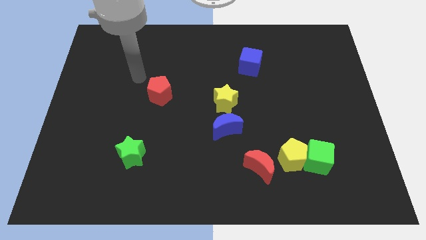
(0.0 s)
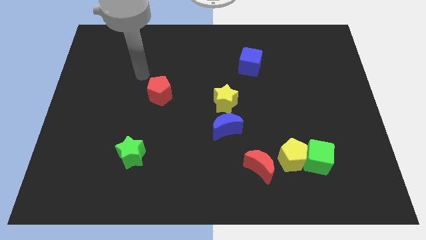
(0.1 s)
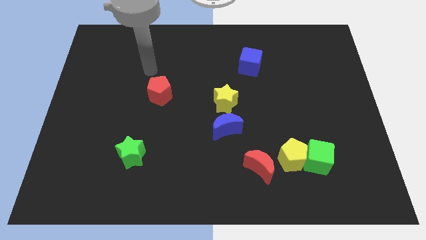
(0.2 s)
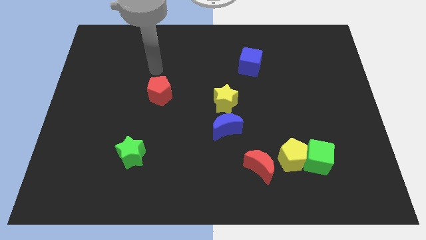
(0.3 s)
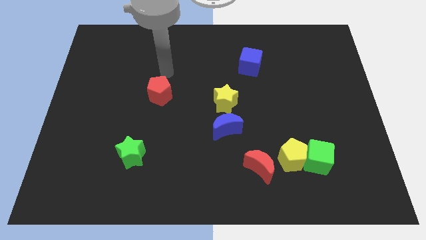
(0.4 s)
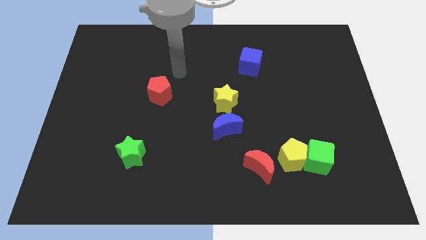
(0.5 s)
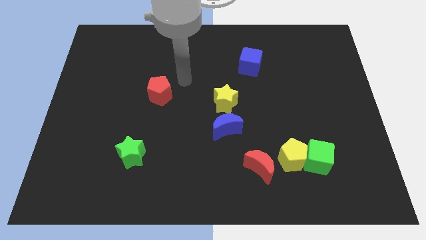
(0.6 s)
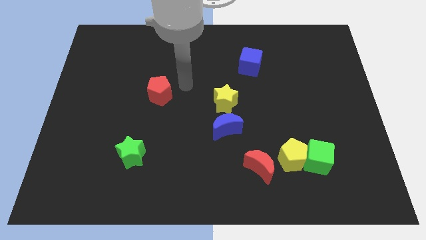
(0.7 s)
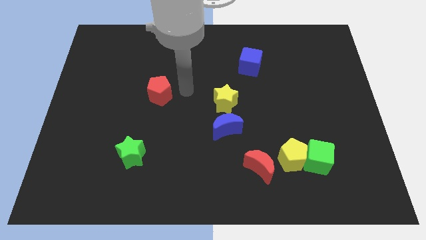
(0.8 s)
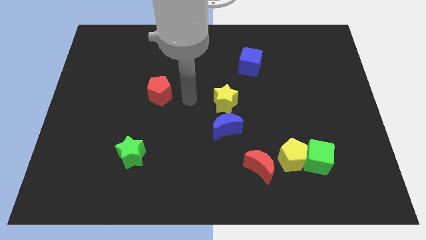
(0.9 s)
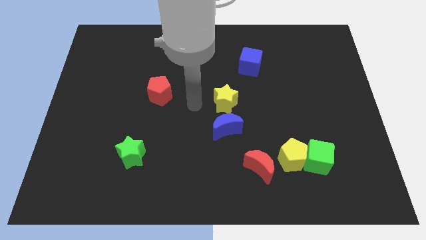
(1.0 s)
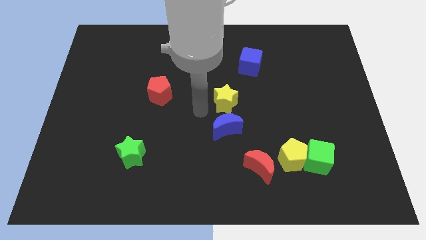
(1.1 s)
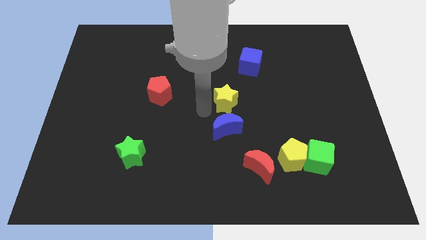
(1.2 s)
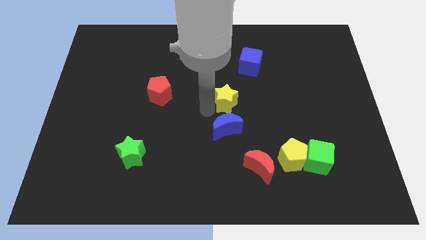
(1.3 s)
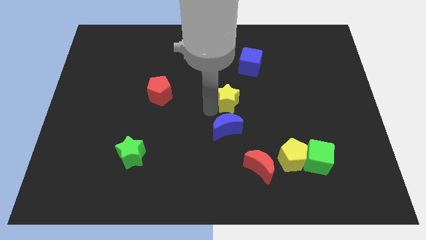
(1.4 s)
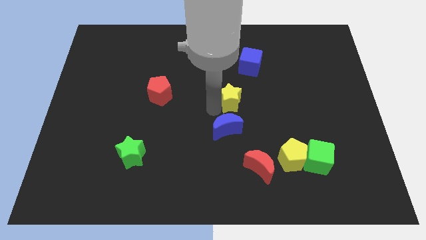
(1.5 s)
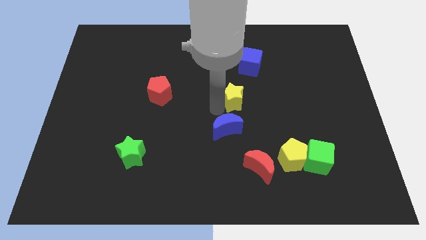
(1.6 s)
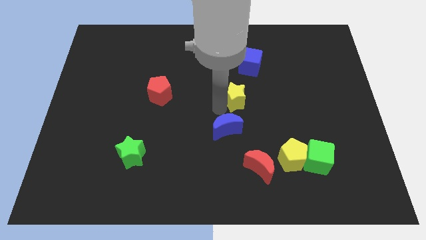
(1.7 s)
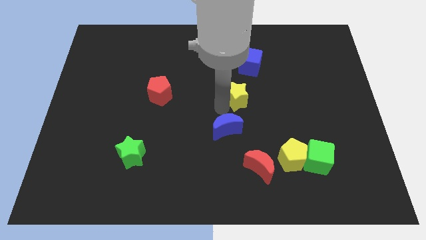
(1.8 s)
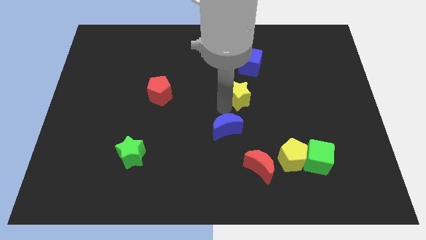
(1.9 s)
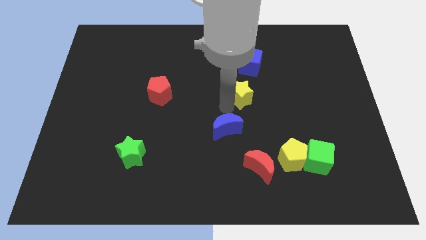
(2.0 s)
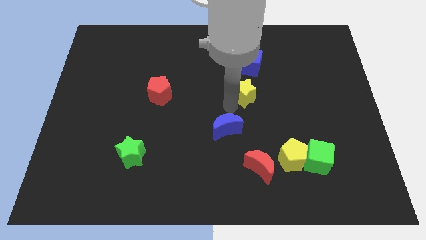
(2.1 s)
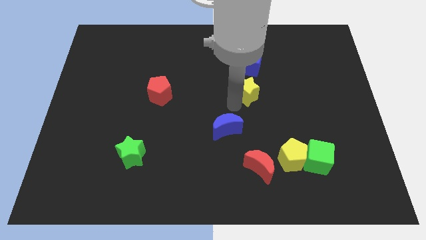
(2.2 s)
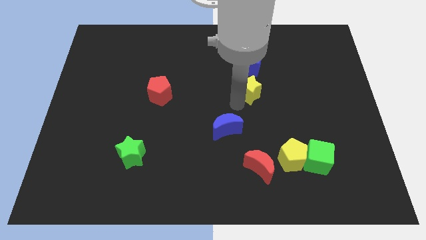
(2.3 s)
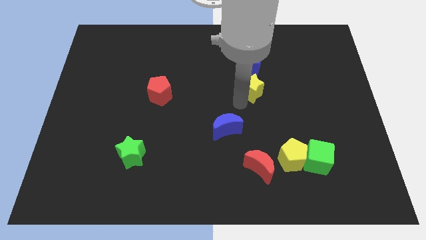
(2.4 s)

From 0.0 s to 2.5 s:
slightly slide the yellow star upwards and then to the right

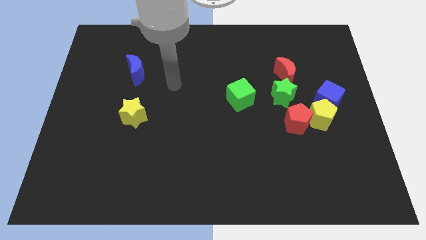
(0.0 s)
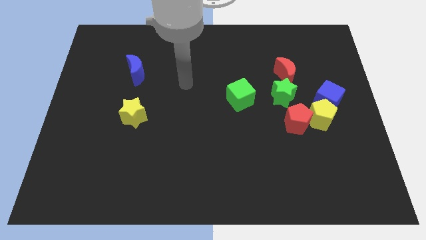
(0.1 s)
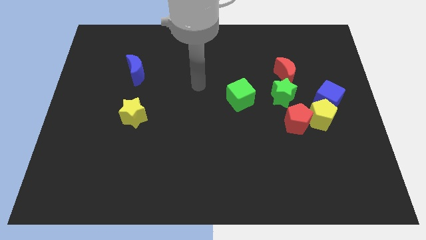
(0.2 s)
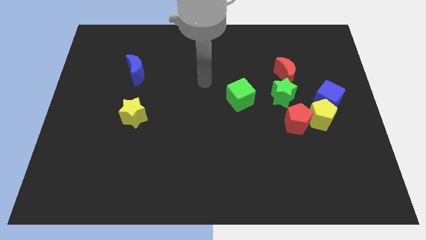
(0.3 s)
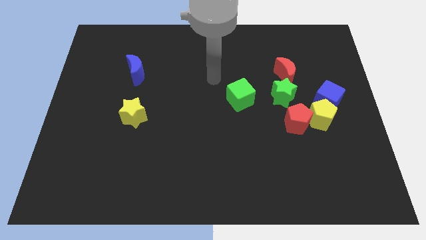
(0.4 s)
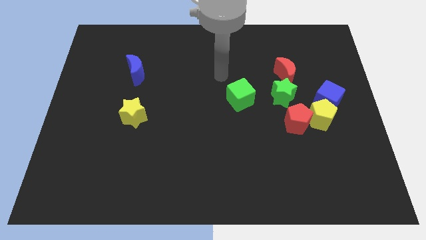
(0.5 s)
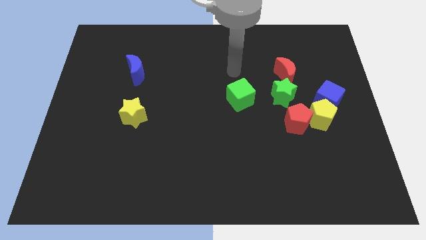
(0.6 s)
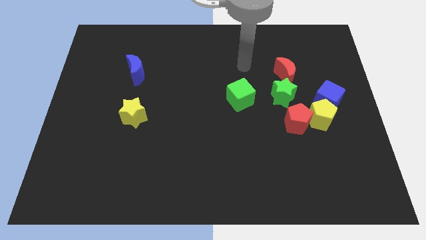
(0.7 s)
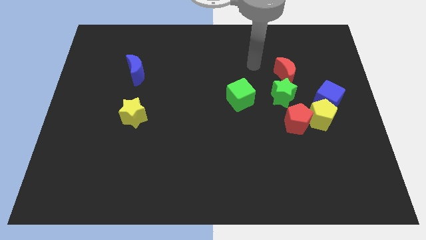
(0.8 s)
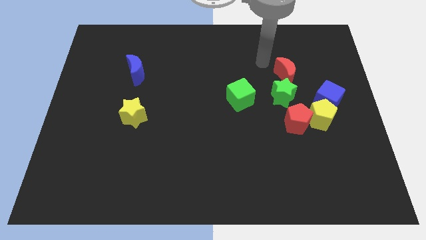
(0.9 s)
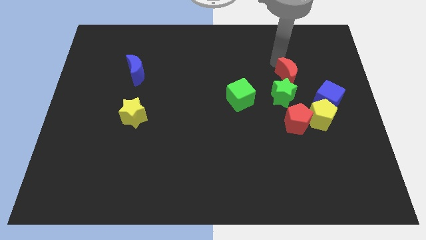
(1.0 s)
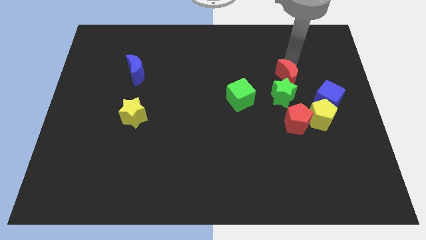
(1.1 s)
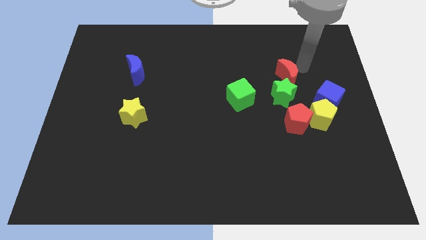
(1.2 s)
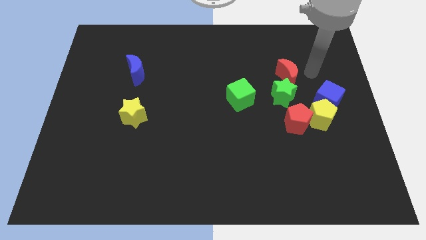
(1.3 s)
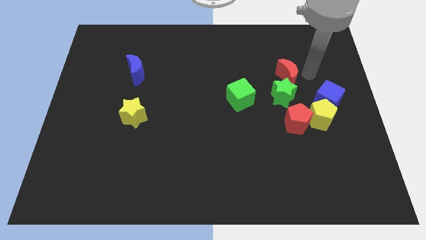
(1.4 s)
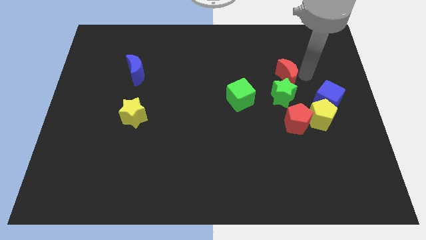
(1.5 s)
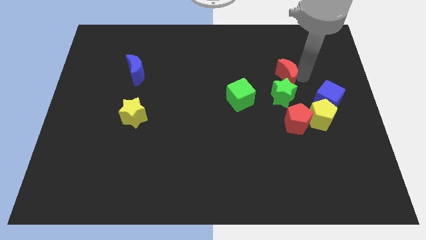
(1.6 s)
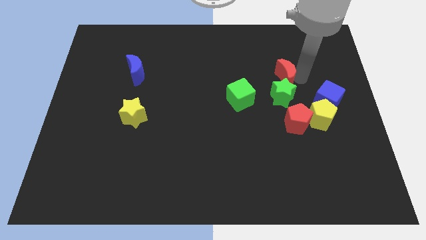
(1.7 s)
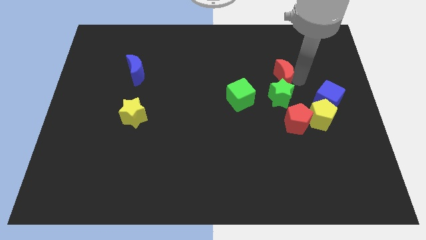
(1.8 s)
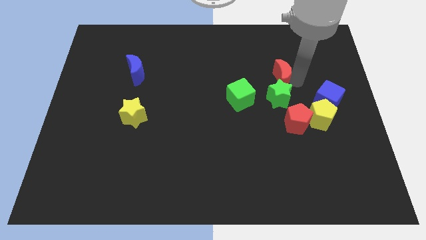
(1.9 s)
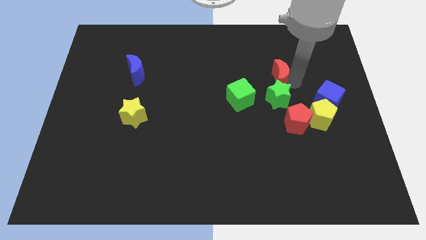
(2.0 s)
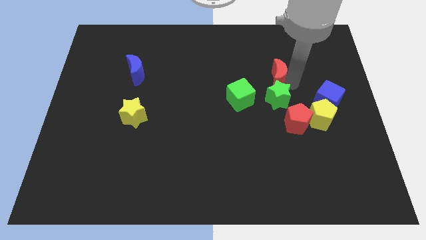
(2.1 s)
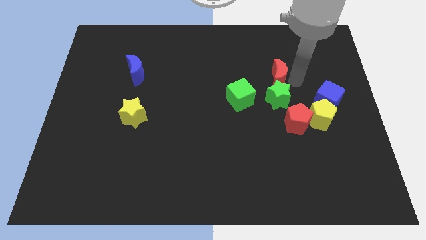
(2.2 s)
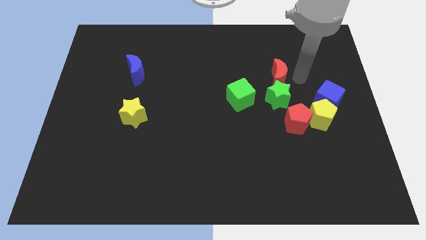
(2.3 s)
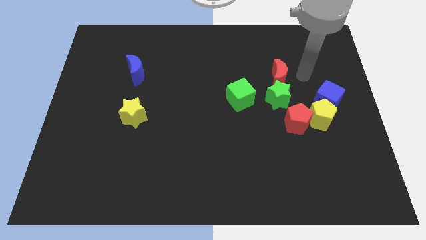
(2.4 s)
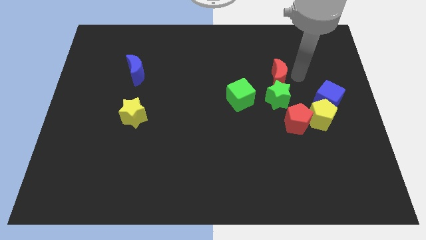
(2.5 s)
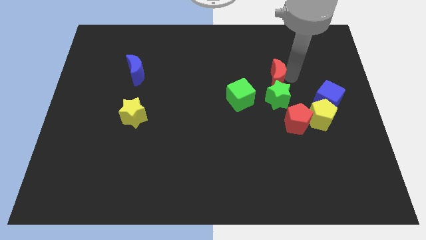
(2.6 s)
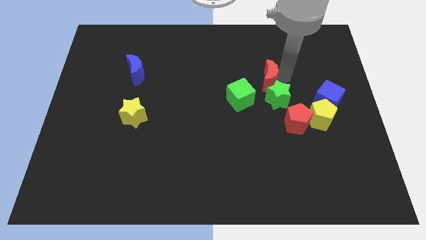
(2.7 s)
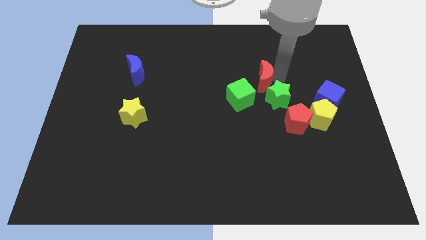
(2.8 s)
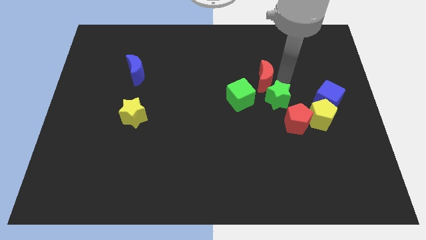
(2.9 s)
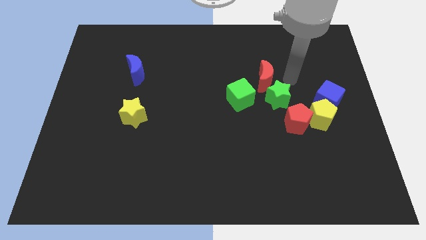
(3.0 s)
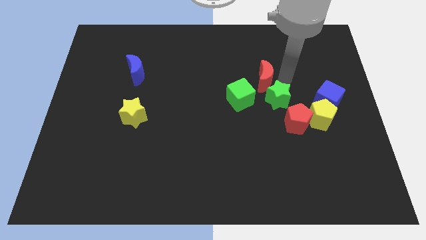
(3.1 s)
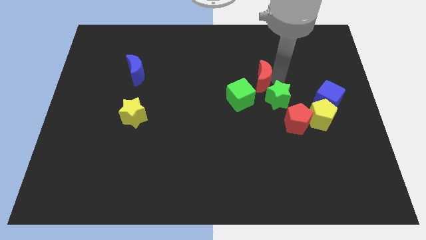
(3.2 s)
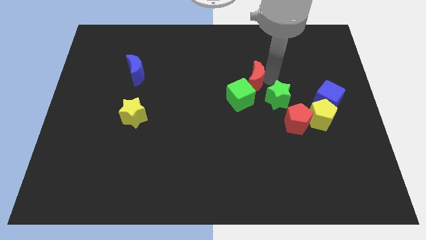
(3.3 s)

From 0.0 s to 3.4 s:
slide the red moon a little left

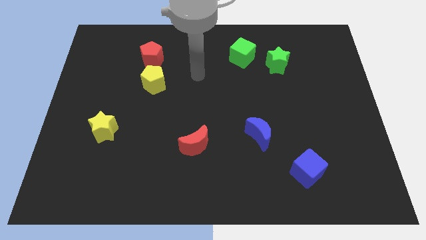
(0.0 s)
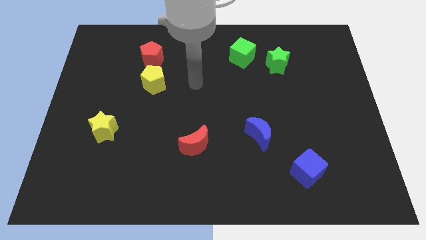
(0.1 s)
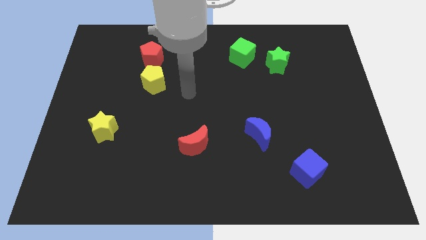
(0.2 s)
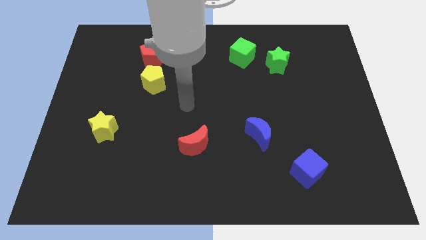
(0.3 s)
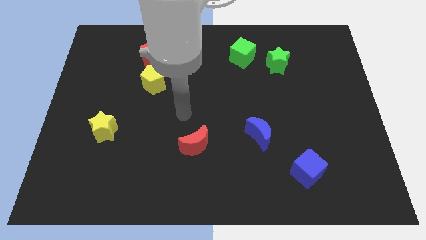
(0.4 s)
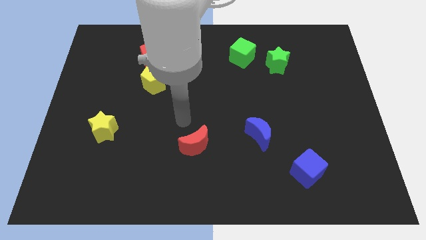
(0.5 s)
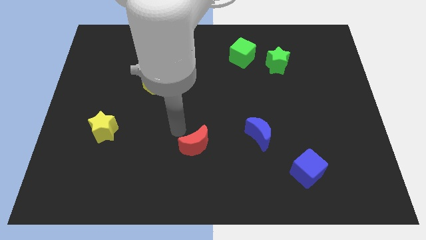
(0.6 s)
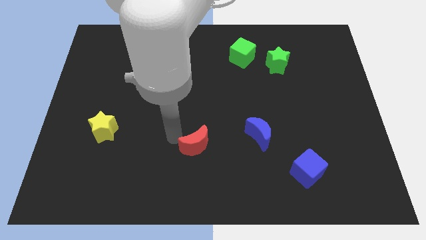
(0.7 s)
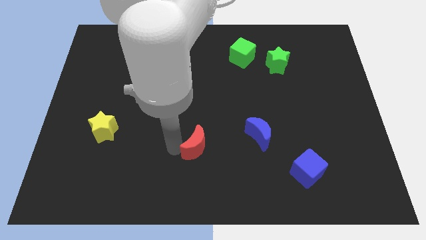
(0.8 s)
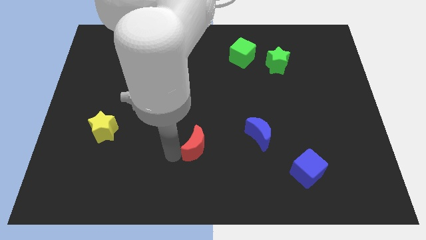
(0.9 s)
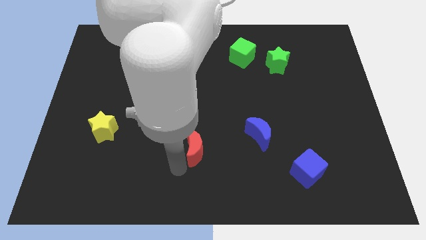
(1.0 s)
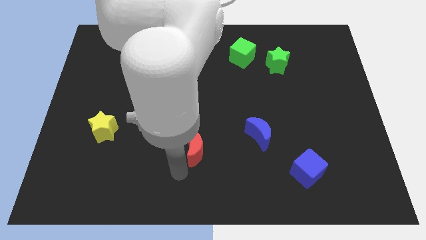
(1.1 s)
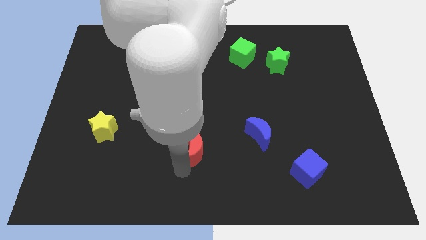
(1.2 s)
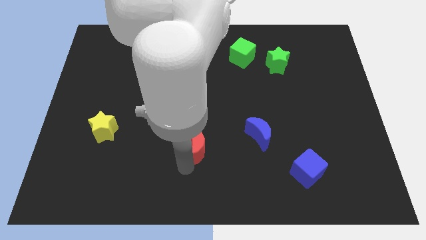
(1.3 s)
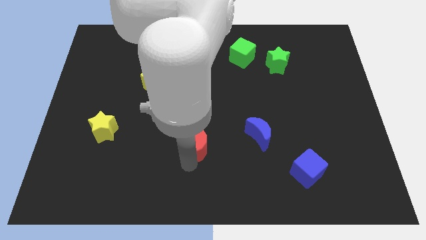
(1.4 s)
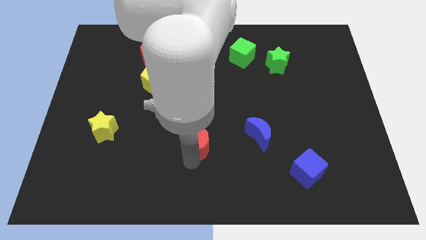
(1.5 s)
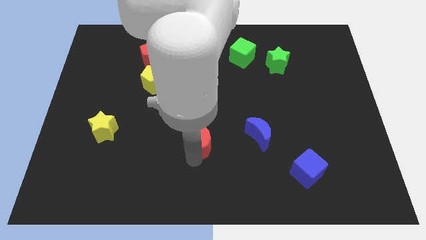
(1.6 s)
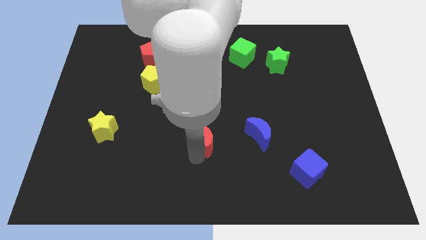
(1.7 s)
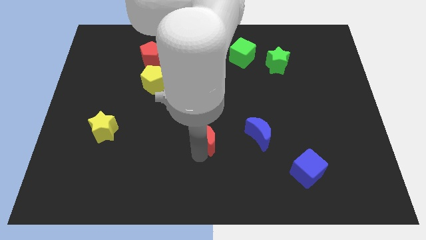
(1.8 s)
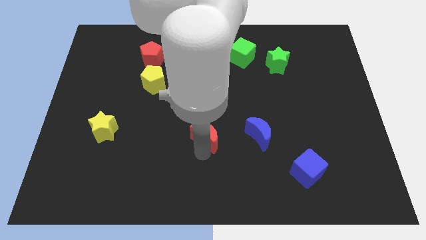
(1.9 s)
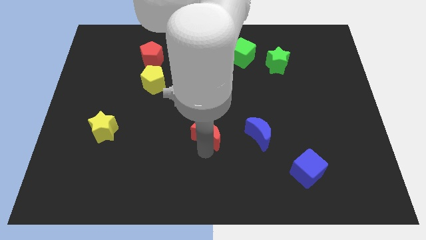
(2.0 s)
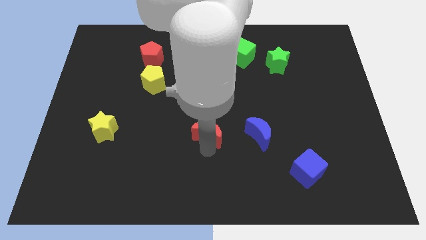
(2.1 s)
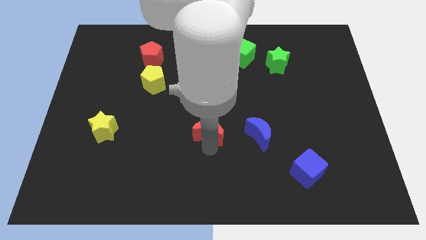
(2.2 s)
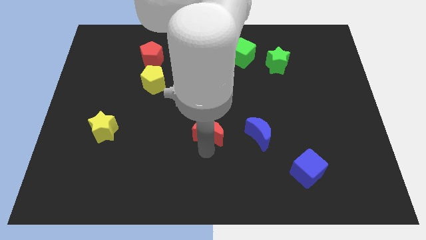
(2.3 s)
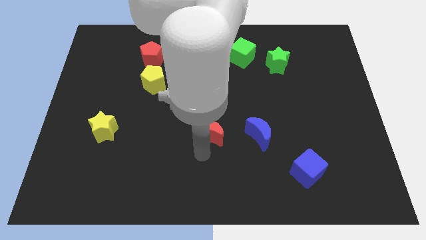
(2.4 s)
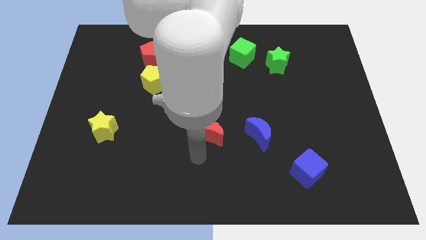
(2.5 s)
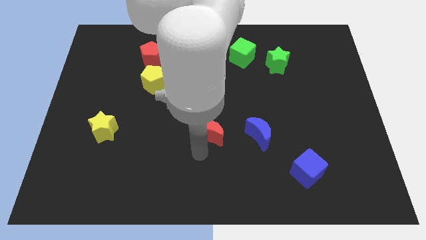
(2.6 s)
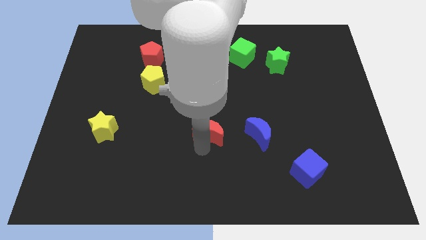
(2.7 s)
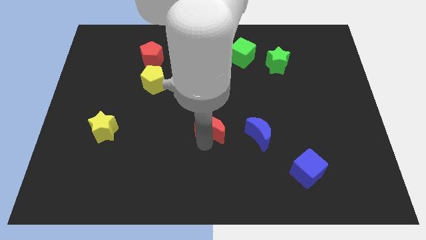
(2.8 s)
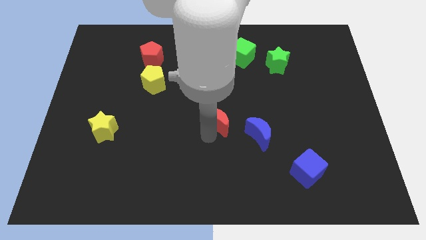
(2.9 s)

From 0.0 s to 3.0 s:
slide the red moon upwards and right a little
